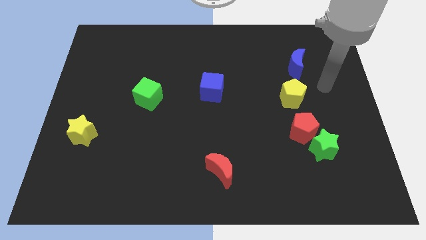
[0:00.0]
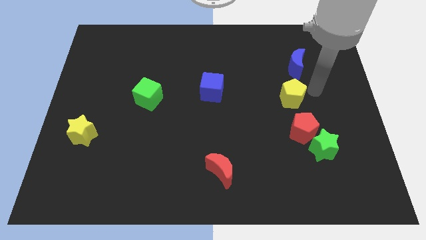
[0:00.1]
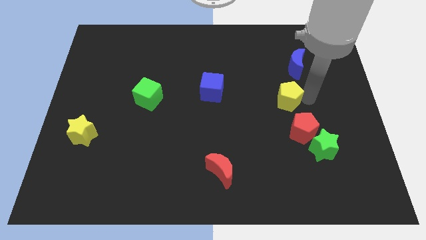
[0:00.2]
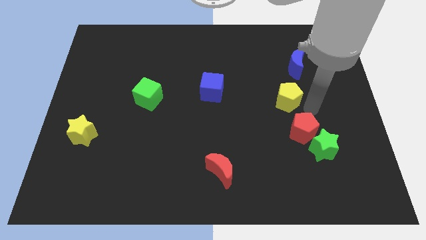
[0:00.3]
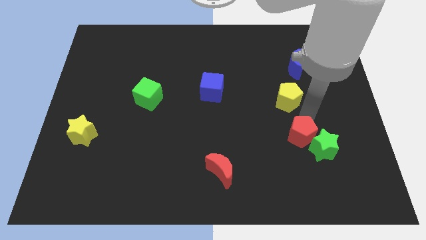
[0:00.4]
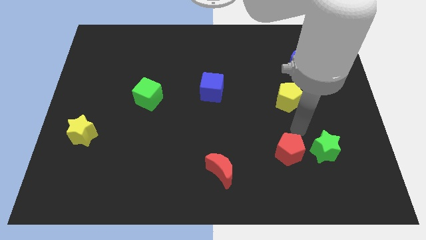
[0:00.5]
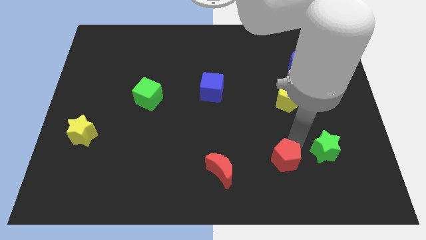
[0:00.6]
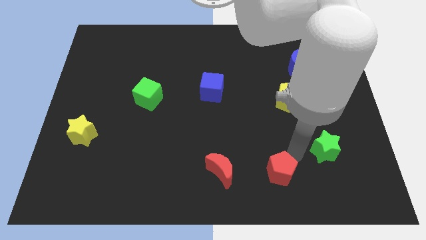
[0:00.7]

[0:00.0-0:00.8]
move the green star away from the red pentagon

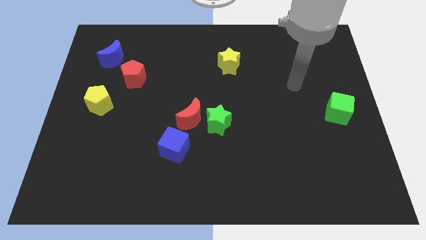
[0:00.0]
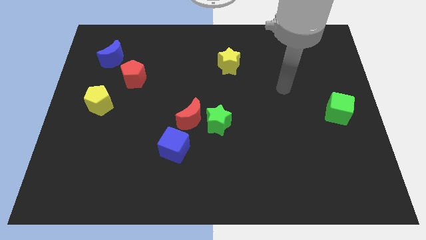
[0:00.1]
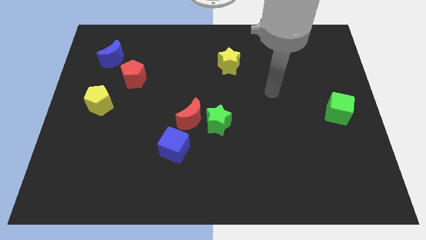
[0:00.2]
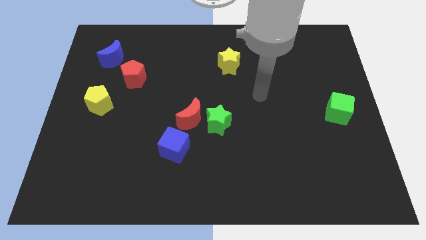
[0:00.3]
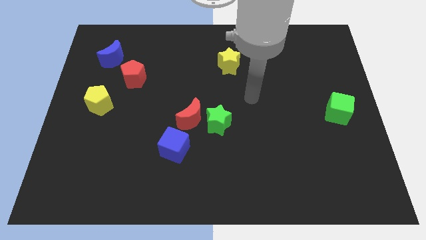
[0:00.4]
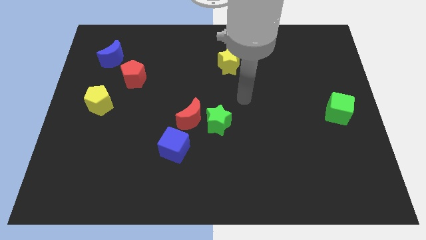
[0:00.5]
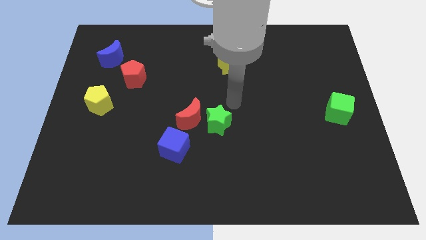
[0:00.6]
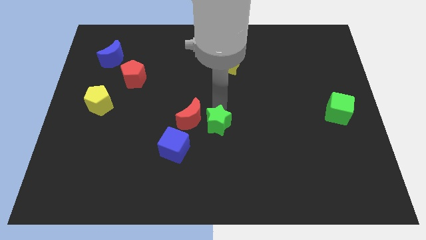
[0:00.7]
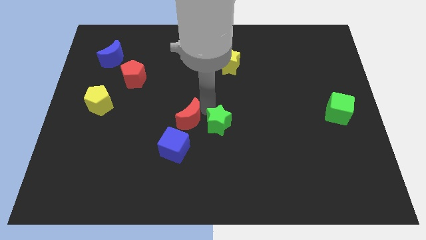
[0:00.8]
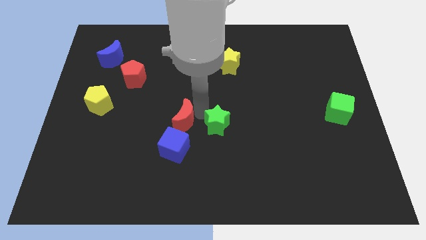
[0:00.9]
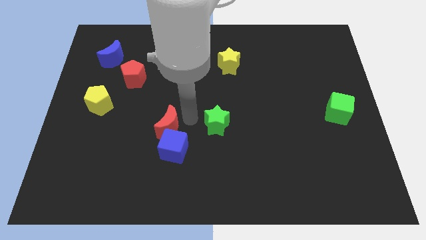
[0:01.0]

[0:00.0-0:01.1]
separate the green star from the red moon

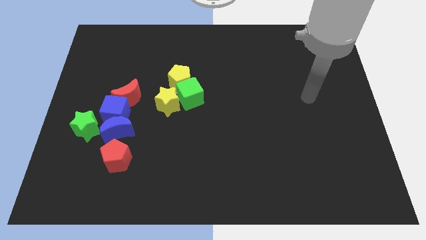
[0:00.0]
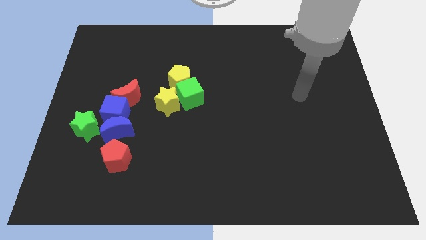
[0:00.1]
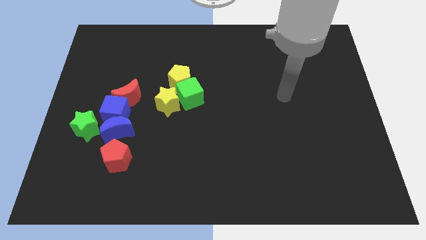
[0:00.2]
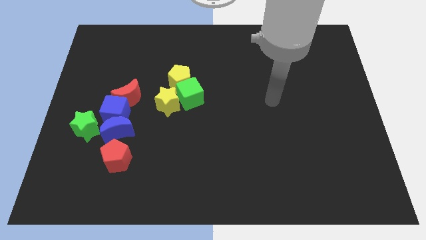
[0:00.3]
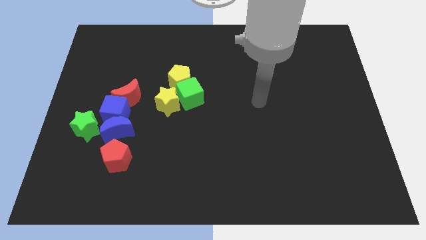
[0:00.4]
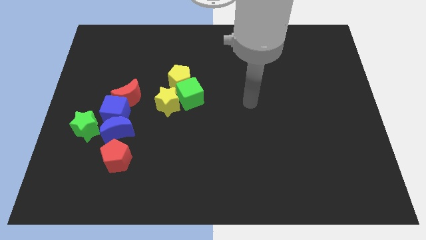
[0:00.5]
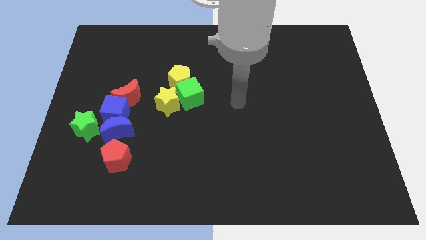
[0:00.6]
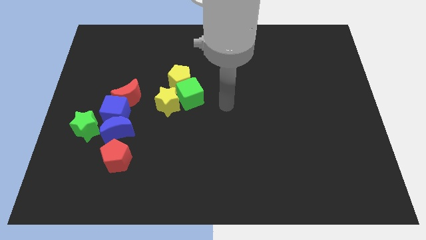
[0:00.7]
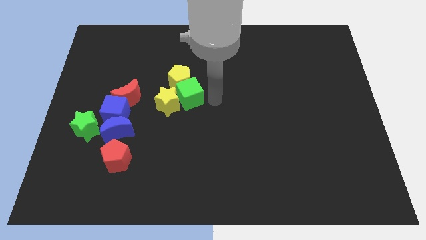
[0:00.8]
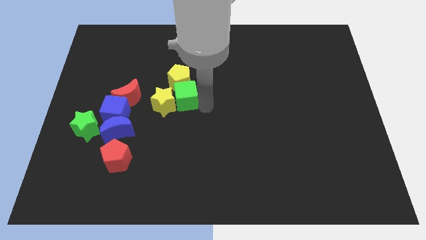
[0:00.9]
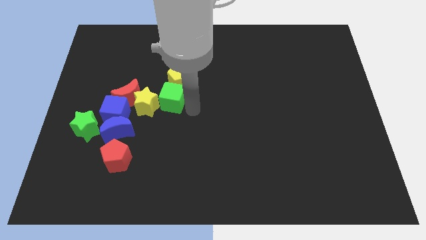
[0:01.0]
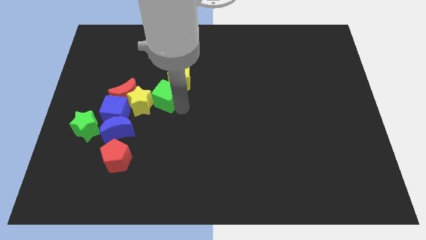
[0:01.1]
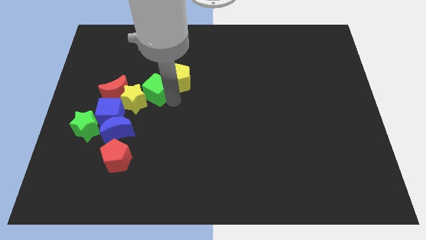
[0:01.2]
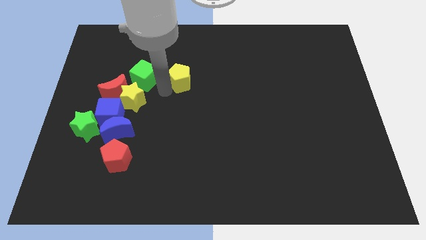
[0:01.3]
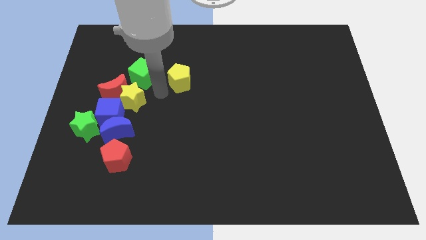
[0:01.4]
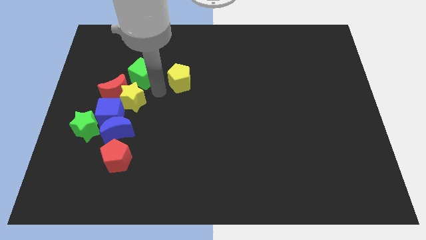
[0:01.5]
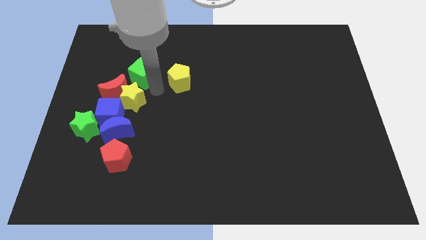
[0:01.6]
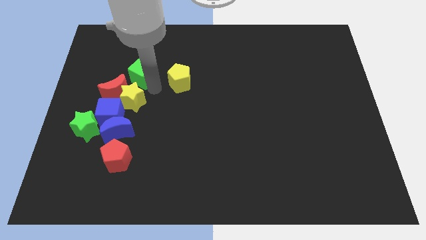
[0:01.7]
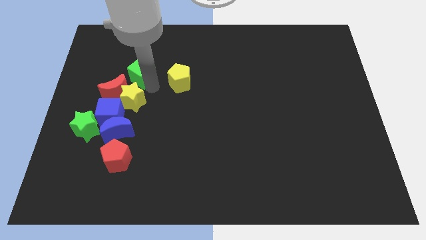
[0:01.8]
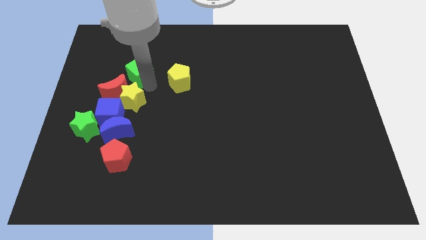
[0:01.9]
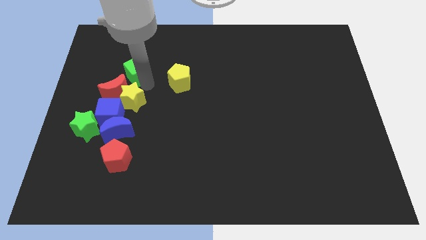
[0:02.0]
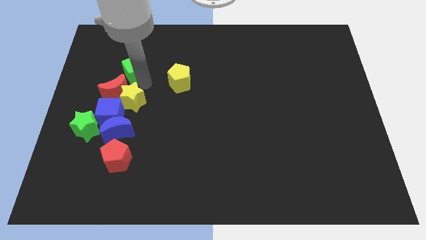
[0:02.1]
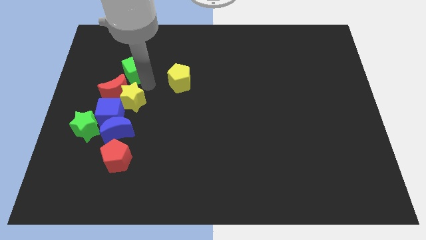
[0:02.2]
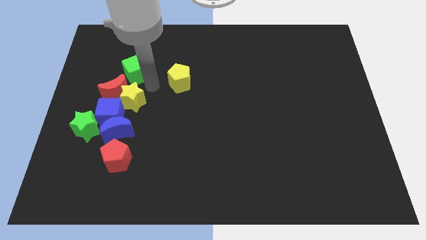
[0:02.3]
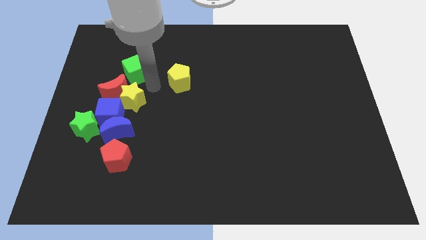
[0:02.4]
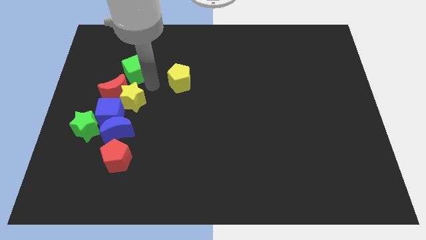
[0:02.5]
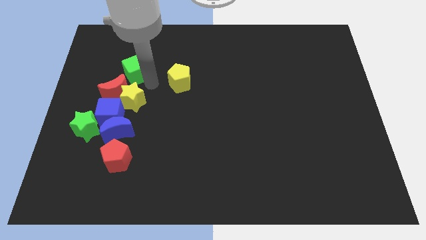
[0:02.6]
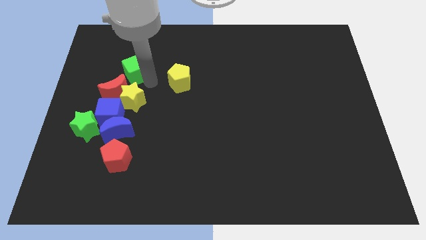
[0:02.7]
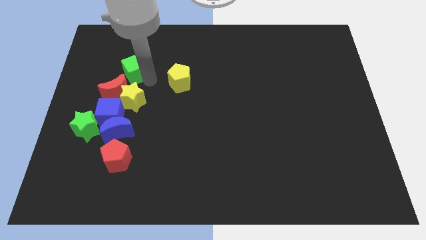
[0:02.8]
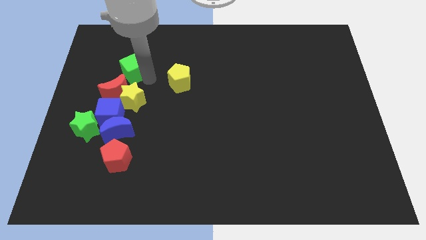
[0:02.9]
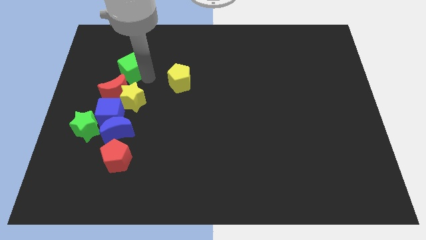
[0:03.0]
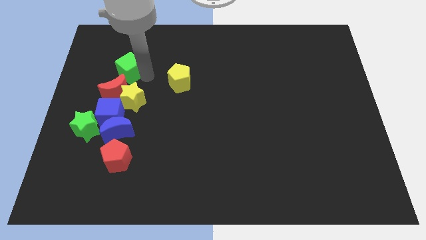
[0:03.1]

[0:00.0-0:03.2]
move the green cube away from the yellow pentagon and yellow star

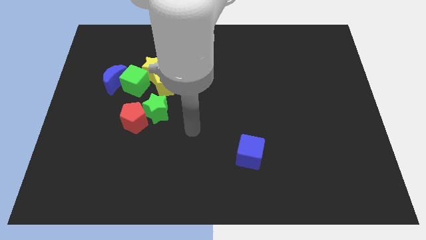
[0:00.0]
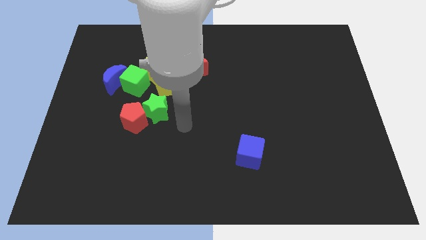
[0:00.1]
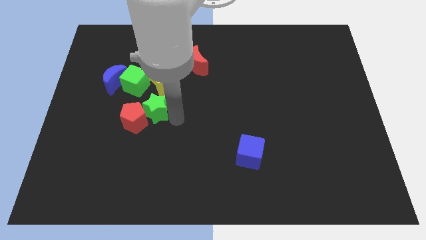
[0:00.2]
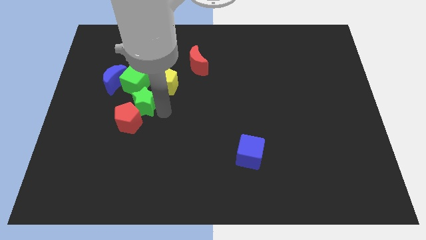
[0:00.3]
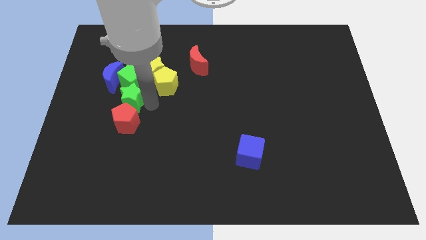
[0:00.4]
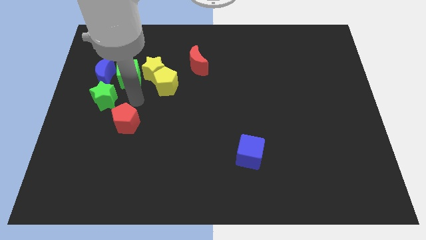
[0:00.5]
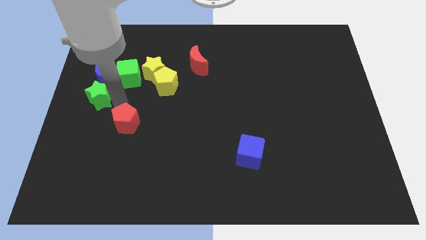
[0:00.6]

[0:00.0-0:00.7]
pull the red pentagon apart from the green star

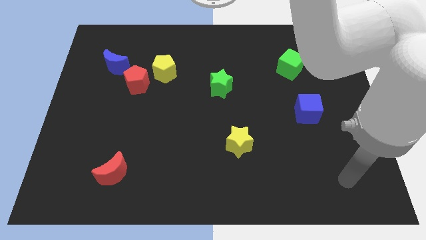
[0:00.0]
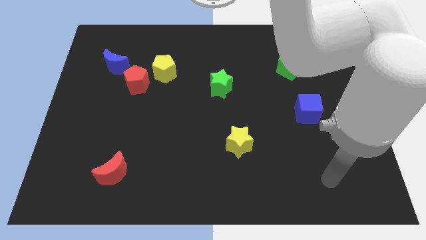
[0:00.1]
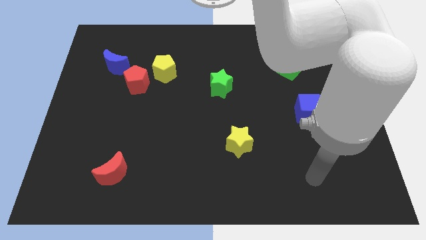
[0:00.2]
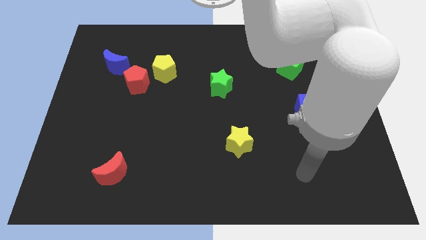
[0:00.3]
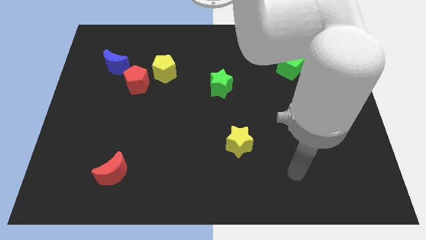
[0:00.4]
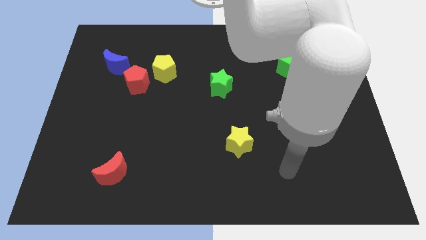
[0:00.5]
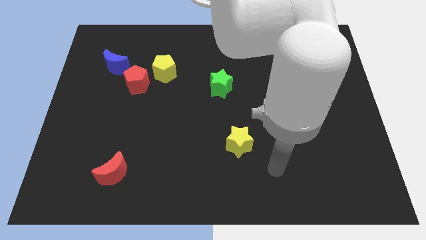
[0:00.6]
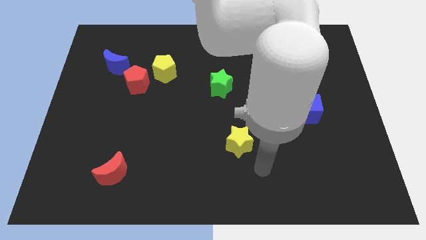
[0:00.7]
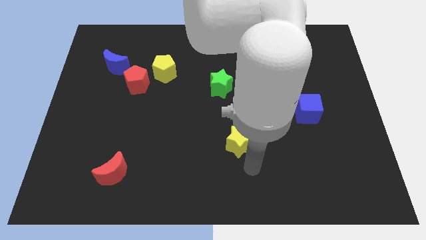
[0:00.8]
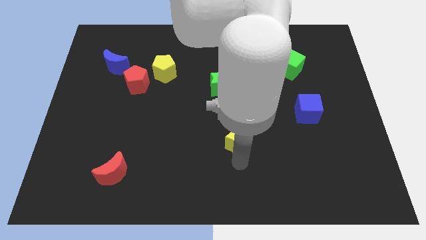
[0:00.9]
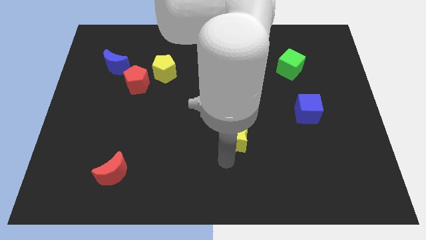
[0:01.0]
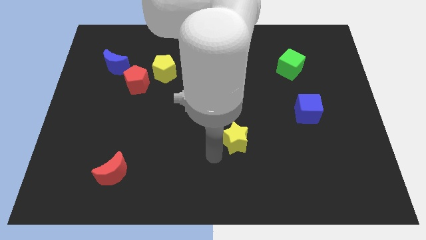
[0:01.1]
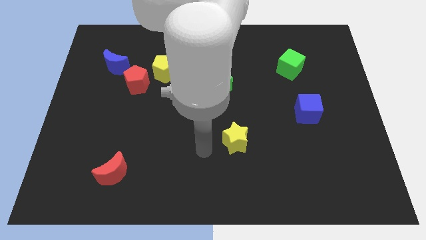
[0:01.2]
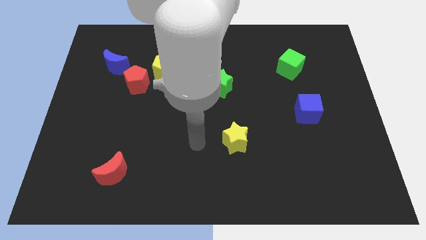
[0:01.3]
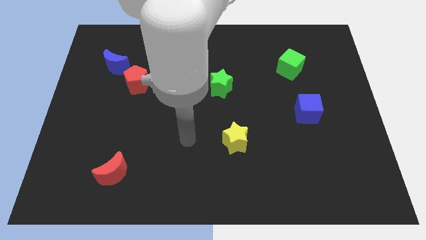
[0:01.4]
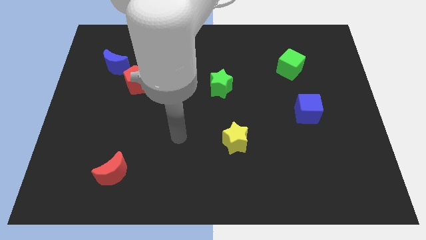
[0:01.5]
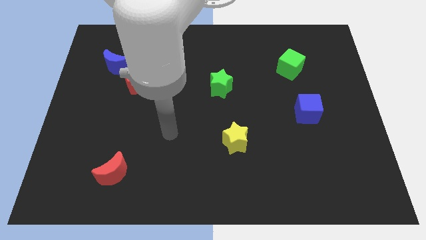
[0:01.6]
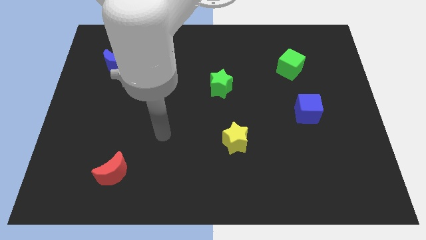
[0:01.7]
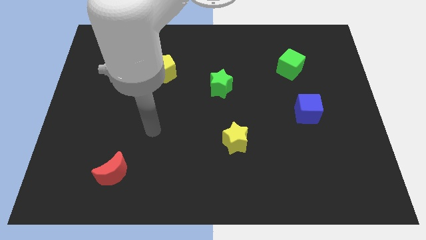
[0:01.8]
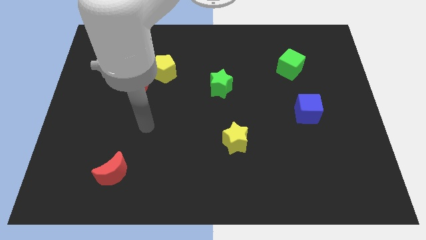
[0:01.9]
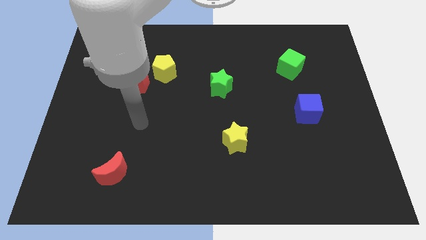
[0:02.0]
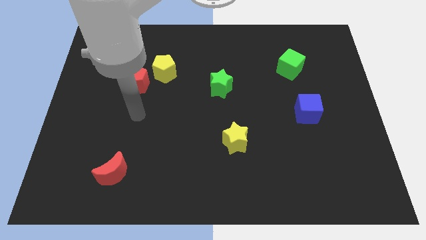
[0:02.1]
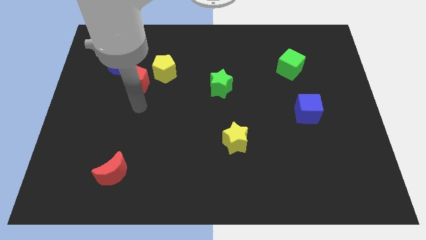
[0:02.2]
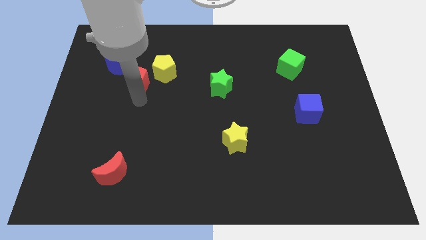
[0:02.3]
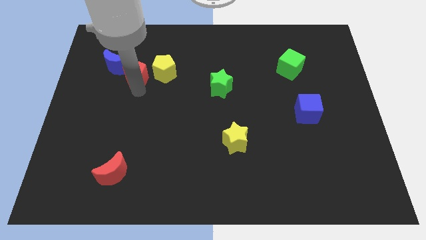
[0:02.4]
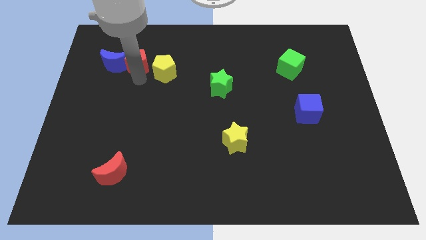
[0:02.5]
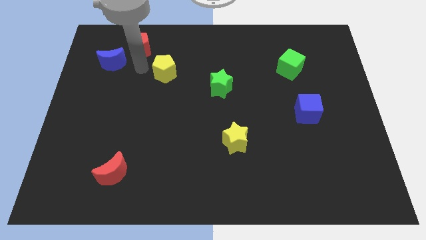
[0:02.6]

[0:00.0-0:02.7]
move the yellow pentagon away from the red pentagon

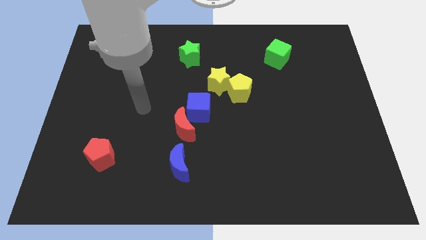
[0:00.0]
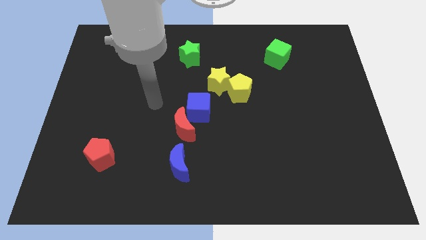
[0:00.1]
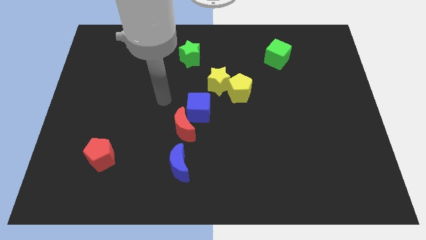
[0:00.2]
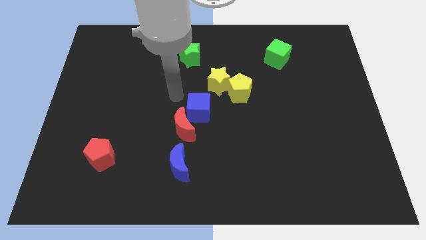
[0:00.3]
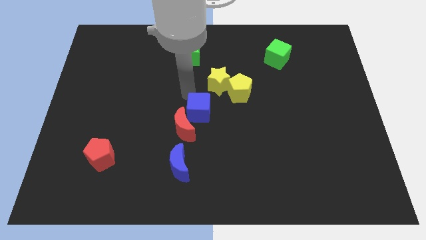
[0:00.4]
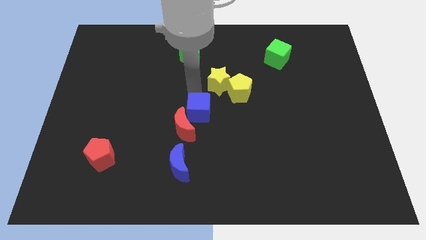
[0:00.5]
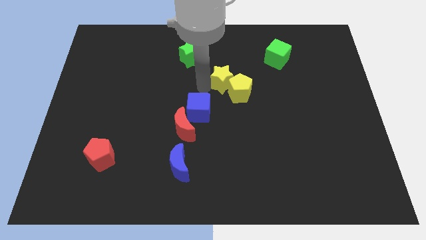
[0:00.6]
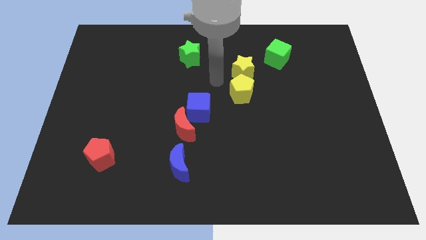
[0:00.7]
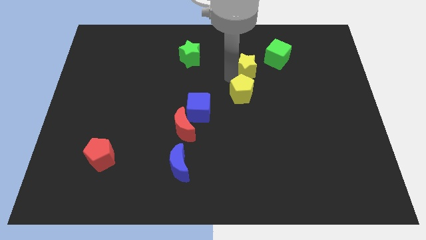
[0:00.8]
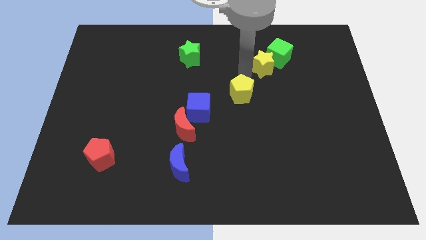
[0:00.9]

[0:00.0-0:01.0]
separate the yellow pentagon from the yellow star
